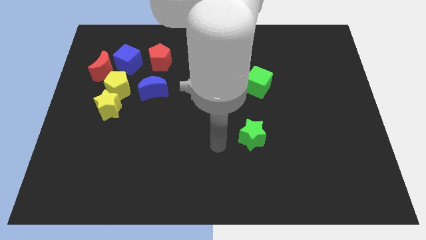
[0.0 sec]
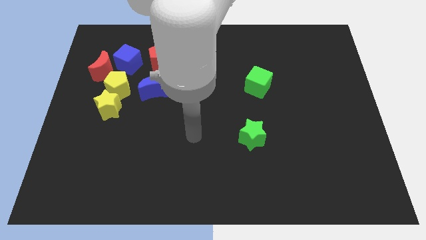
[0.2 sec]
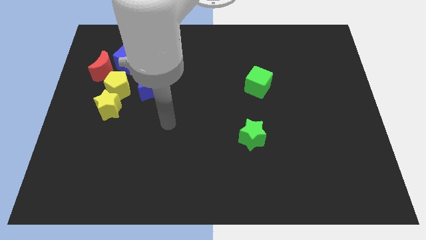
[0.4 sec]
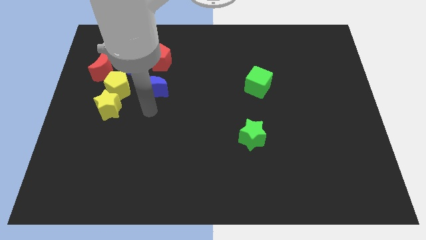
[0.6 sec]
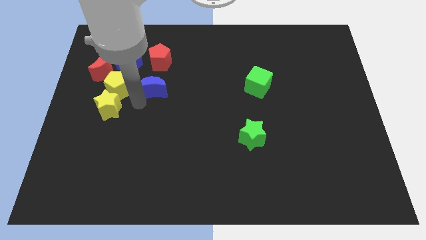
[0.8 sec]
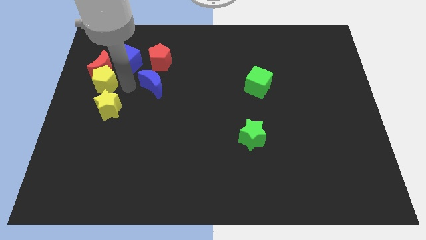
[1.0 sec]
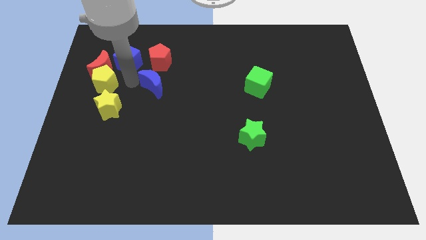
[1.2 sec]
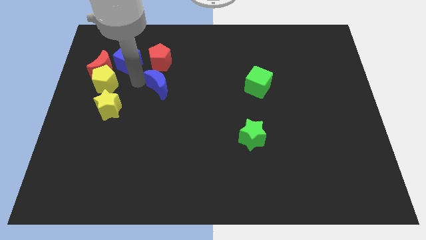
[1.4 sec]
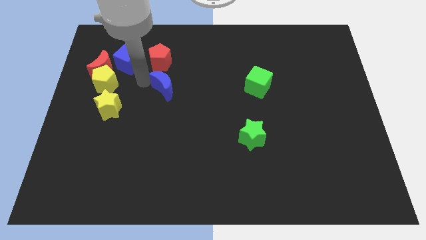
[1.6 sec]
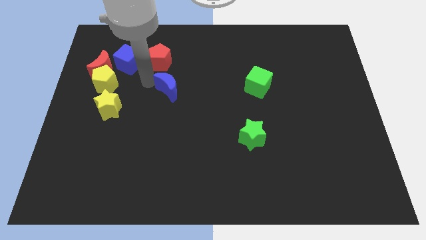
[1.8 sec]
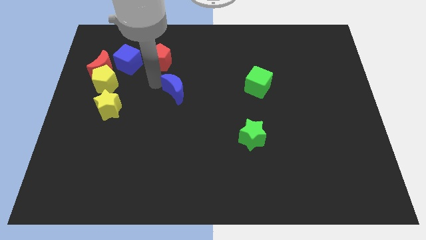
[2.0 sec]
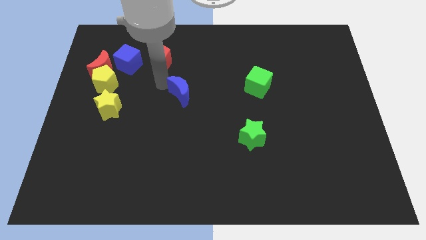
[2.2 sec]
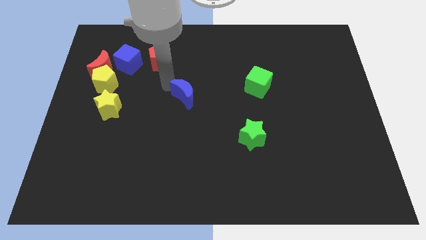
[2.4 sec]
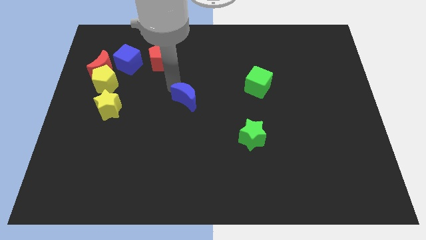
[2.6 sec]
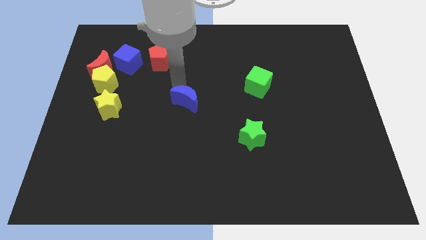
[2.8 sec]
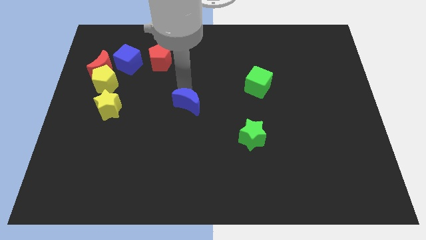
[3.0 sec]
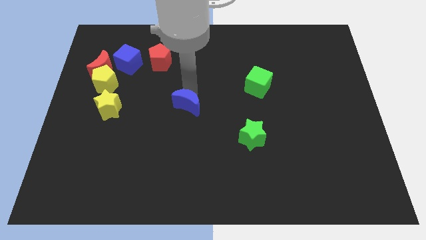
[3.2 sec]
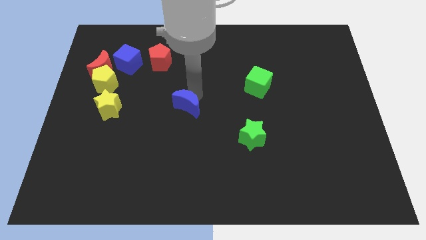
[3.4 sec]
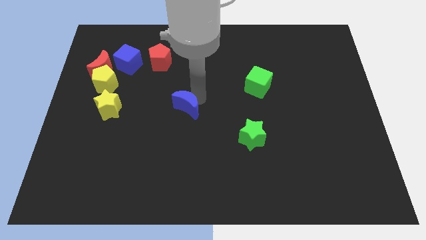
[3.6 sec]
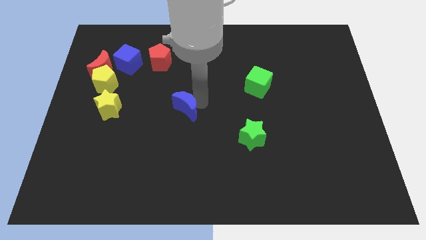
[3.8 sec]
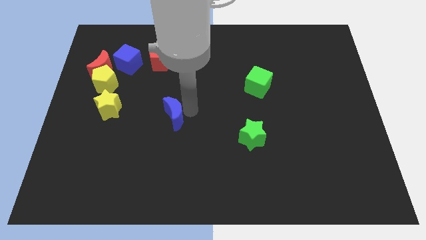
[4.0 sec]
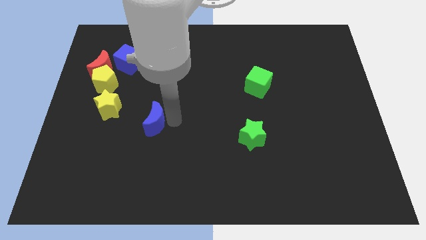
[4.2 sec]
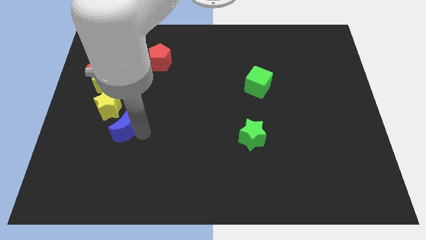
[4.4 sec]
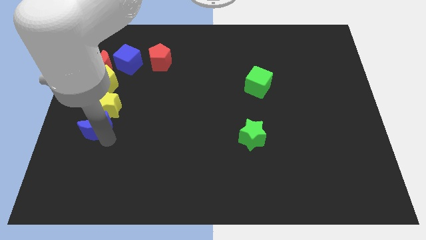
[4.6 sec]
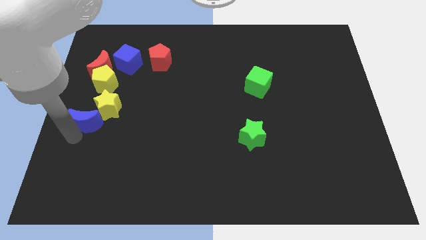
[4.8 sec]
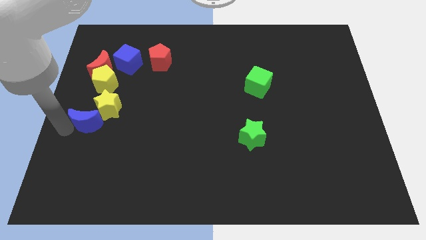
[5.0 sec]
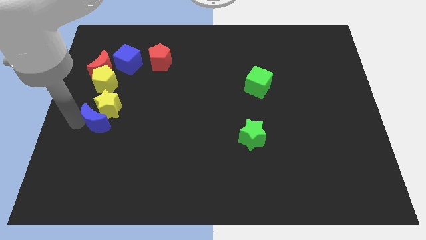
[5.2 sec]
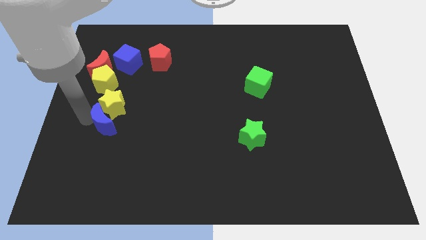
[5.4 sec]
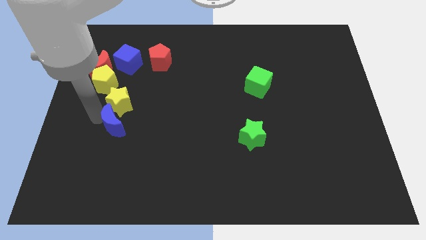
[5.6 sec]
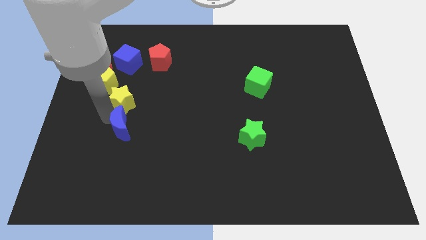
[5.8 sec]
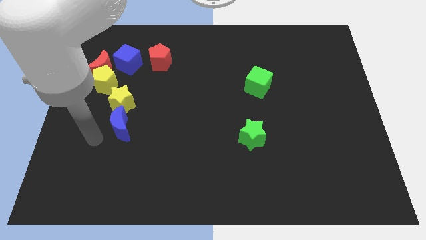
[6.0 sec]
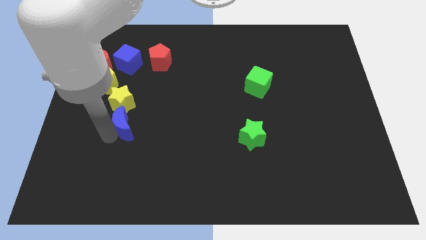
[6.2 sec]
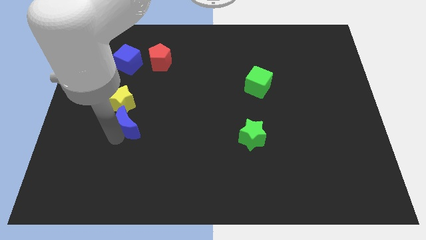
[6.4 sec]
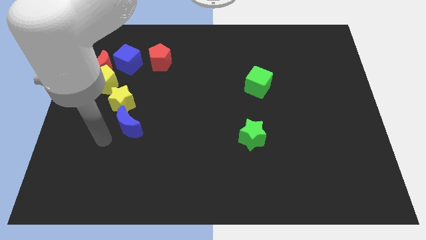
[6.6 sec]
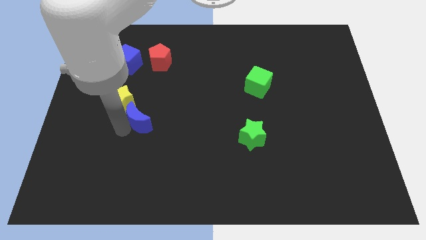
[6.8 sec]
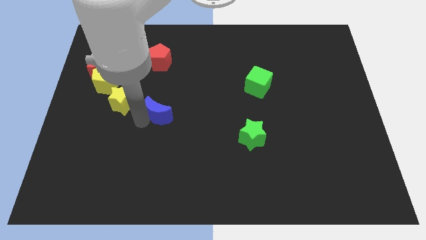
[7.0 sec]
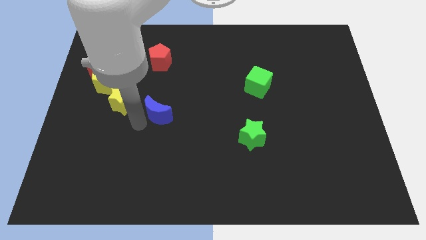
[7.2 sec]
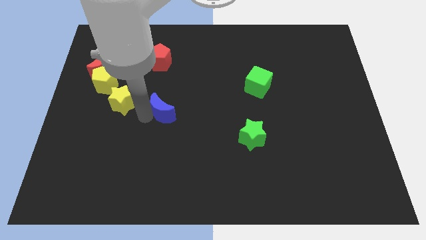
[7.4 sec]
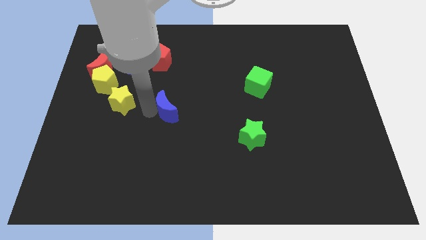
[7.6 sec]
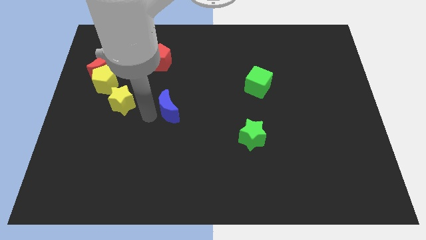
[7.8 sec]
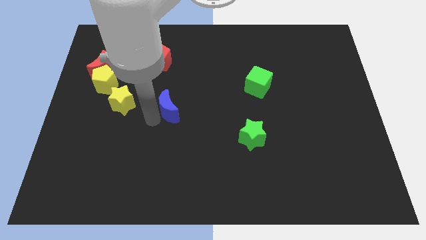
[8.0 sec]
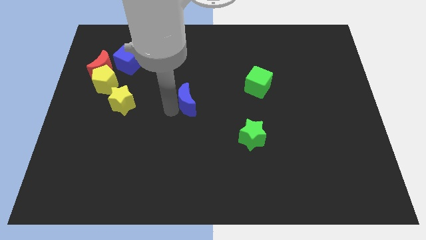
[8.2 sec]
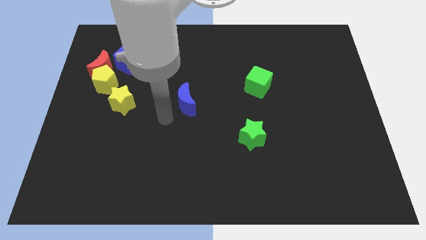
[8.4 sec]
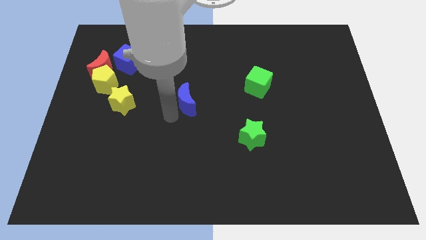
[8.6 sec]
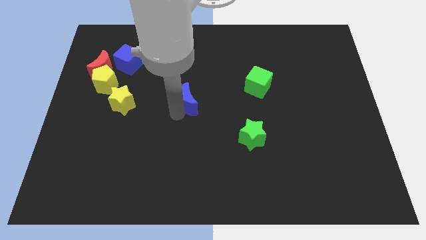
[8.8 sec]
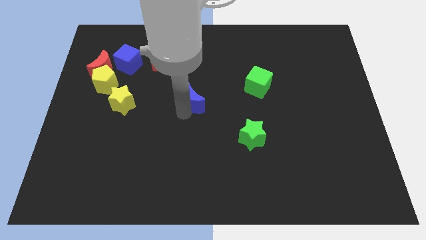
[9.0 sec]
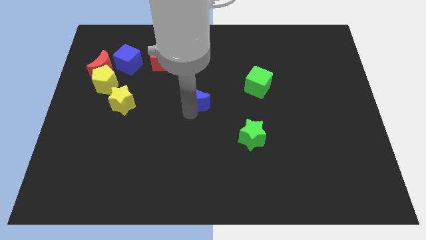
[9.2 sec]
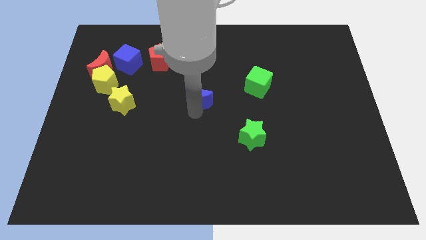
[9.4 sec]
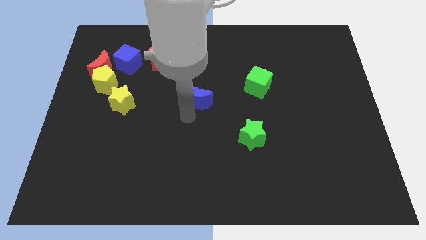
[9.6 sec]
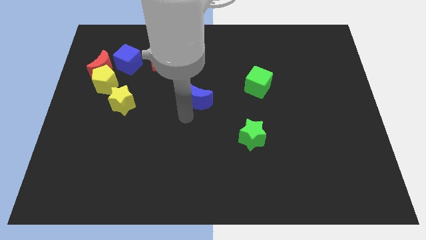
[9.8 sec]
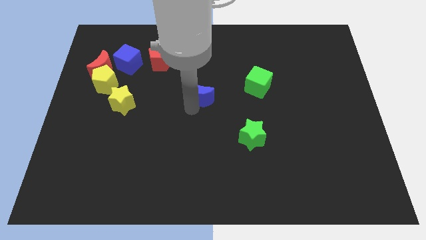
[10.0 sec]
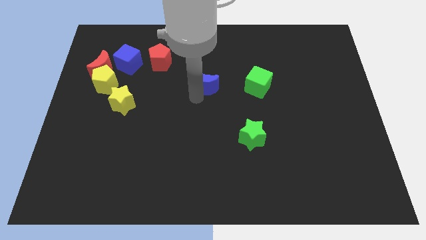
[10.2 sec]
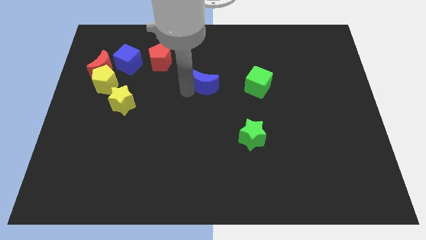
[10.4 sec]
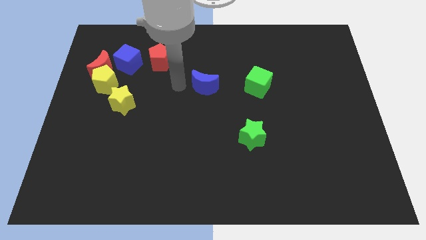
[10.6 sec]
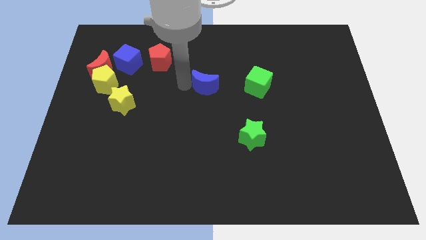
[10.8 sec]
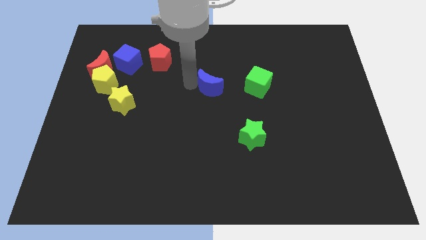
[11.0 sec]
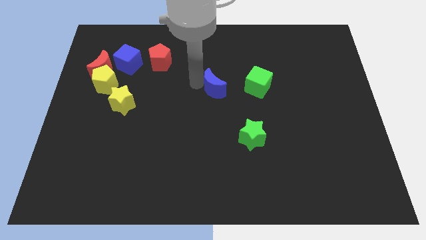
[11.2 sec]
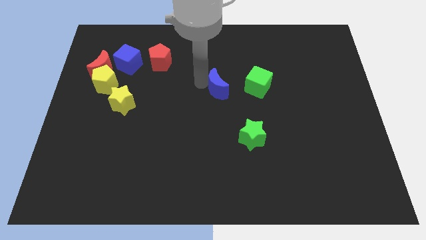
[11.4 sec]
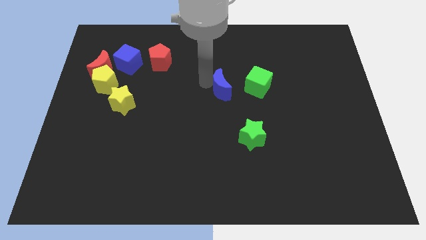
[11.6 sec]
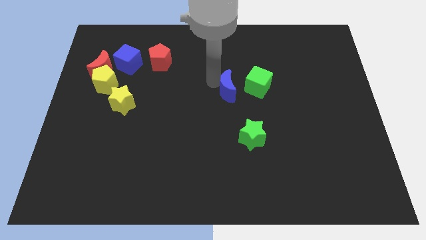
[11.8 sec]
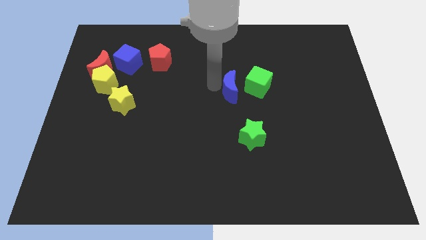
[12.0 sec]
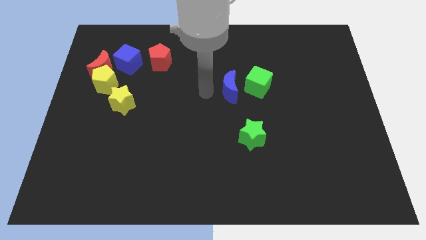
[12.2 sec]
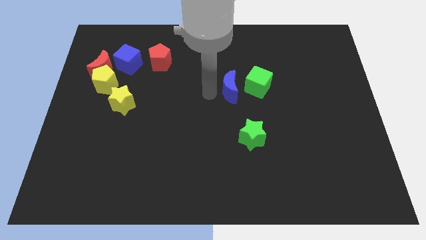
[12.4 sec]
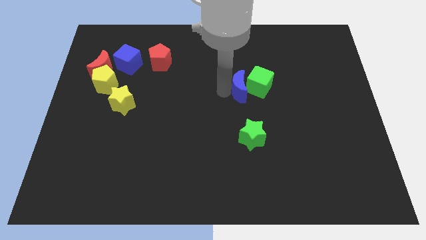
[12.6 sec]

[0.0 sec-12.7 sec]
put the blue moon next to the green cube

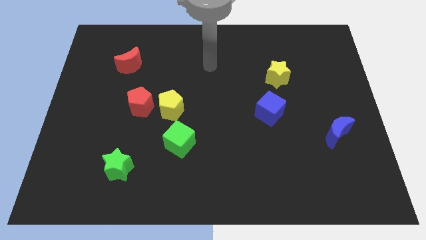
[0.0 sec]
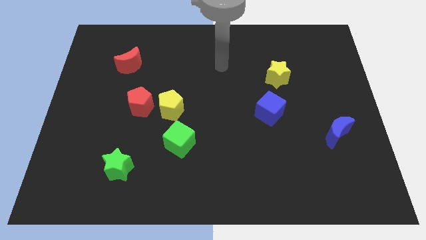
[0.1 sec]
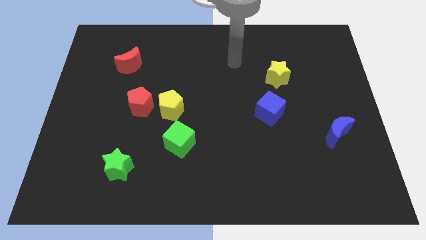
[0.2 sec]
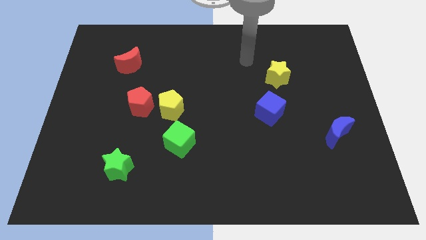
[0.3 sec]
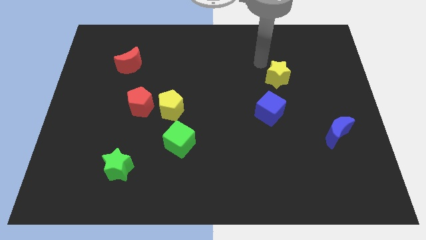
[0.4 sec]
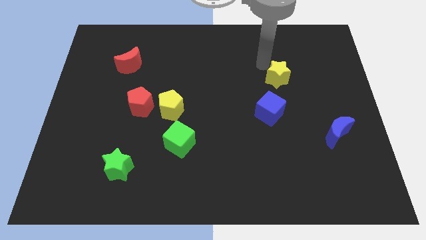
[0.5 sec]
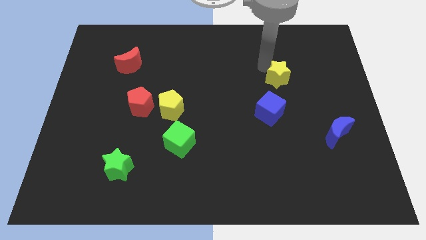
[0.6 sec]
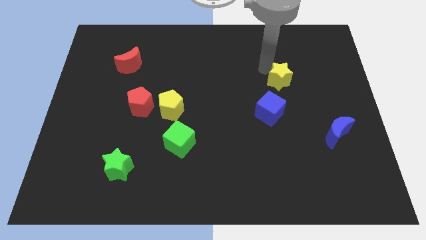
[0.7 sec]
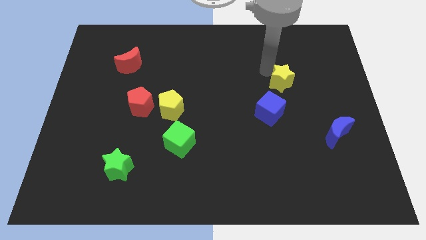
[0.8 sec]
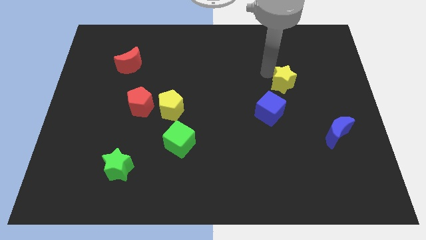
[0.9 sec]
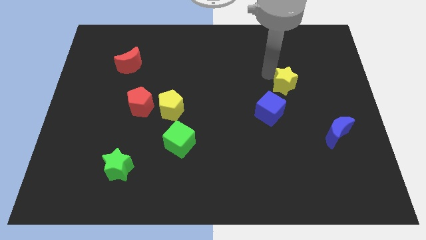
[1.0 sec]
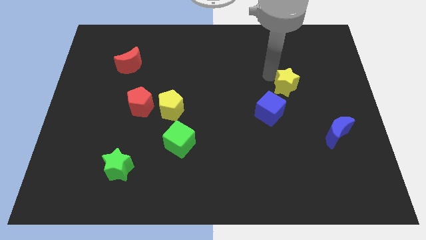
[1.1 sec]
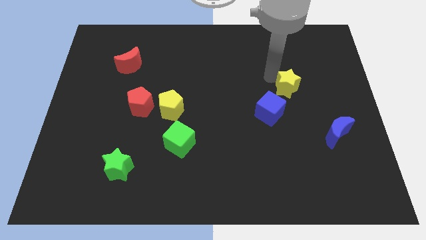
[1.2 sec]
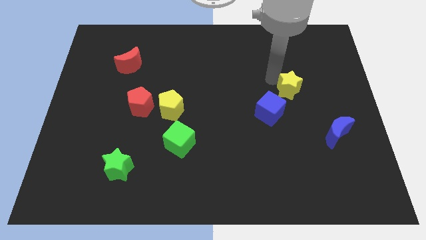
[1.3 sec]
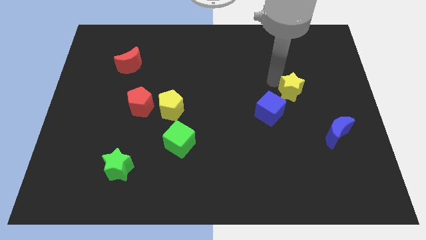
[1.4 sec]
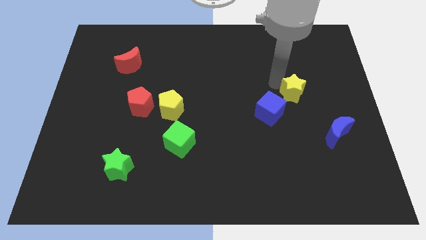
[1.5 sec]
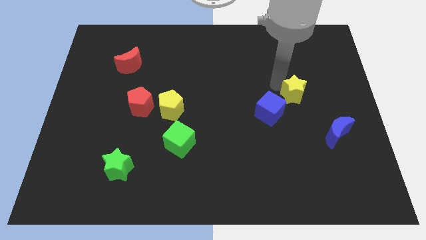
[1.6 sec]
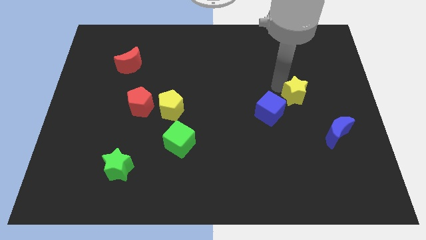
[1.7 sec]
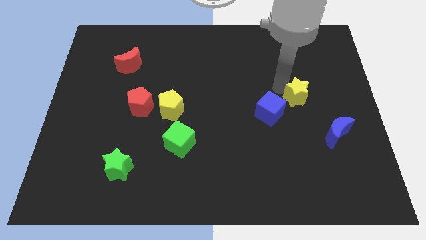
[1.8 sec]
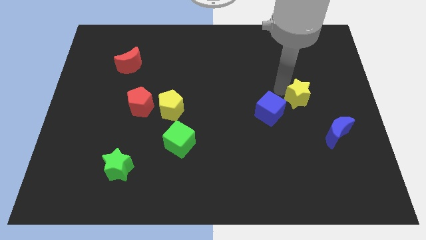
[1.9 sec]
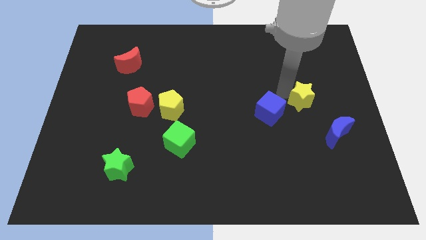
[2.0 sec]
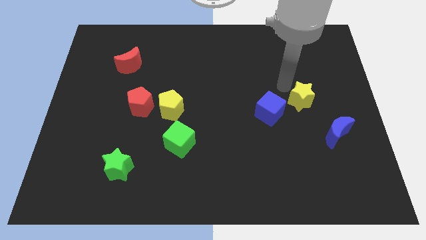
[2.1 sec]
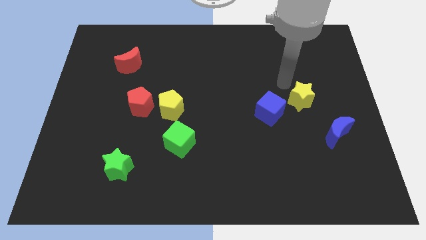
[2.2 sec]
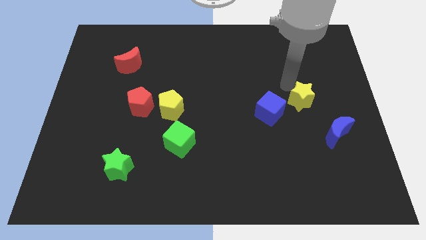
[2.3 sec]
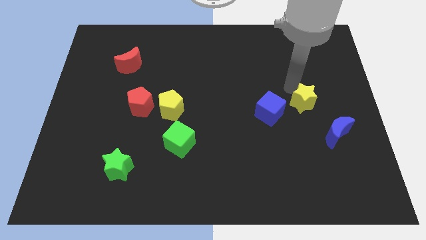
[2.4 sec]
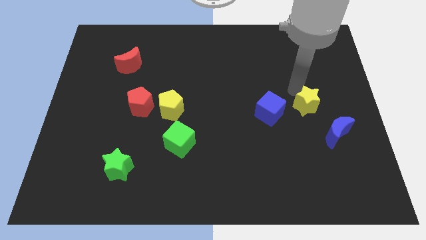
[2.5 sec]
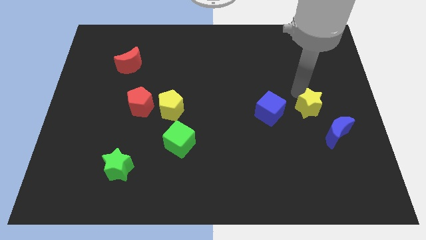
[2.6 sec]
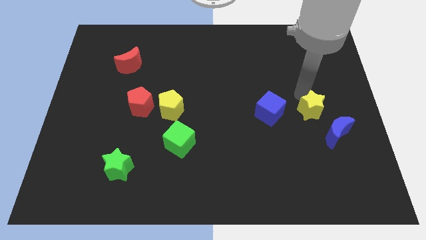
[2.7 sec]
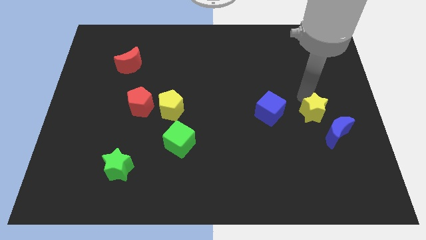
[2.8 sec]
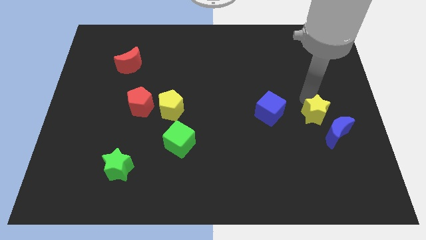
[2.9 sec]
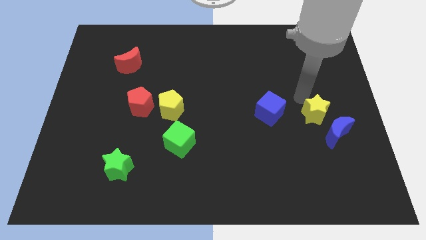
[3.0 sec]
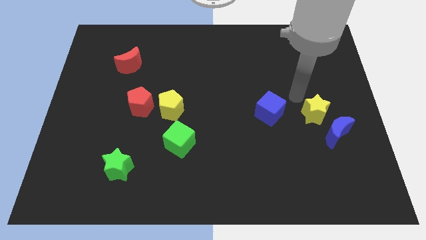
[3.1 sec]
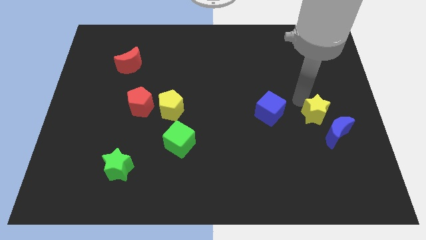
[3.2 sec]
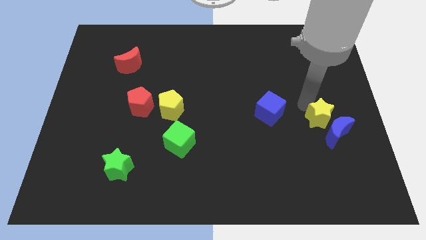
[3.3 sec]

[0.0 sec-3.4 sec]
push the yellow star towards the blue moon
